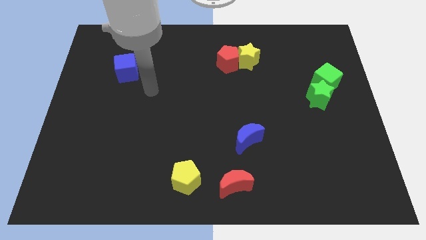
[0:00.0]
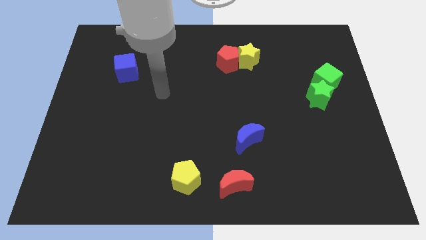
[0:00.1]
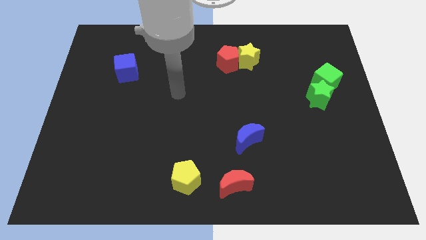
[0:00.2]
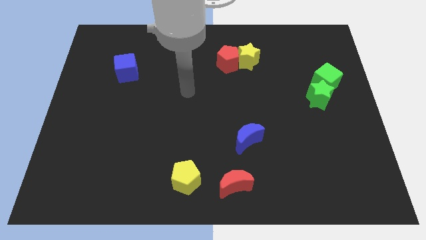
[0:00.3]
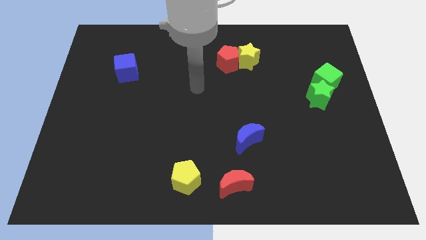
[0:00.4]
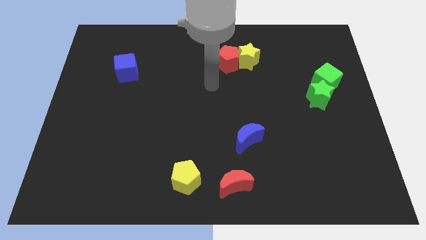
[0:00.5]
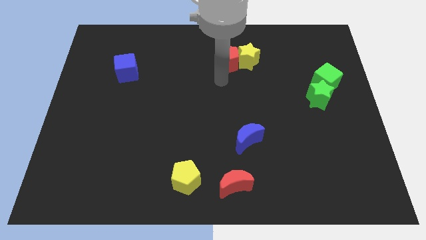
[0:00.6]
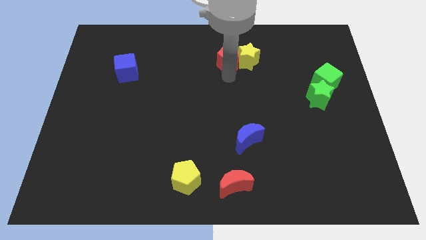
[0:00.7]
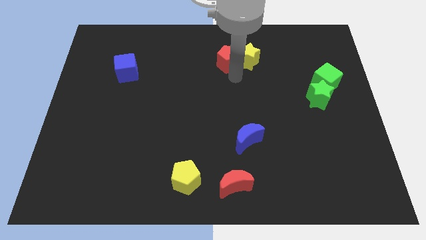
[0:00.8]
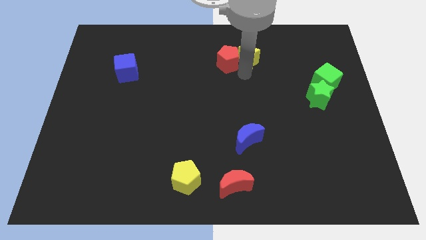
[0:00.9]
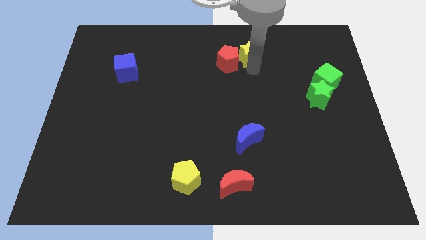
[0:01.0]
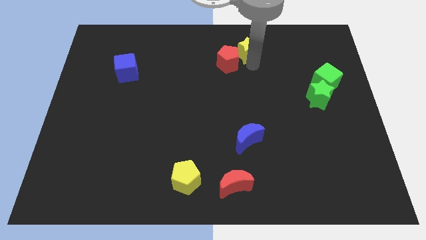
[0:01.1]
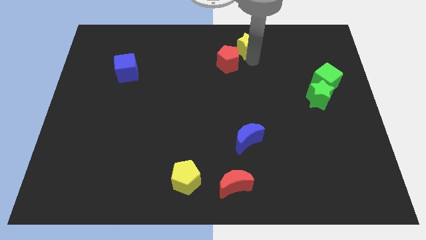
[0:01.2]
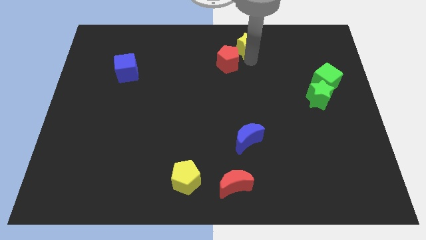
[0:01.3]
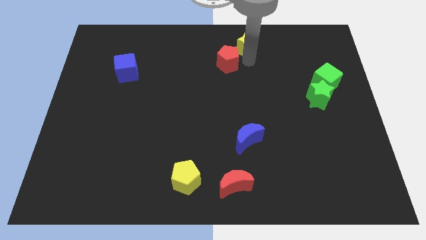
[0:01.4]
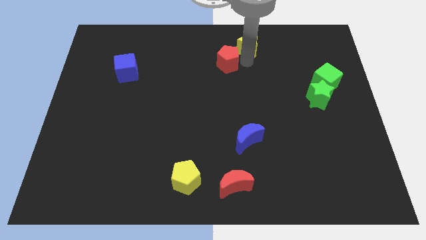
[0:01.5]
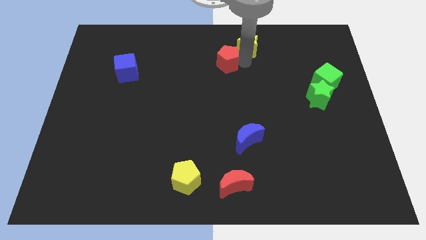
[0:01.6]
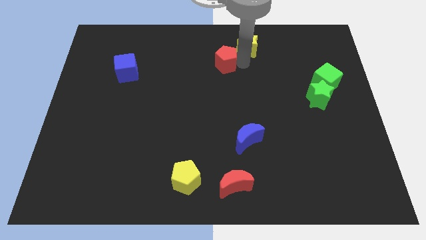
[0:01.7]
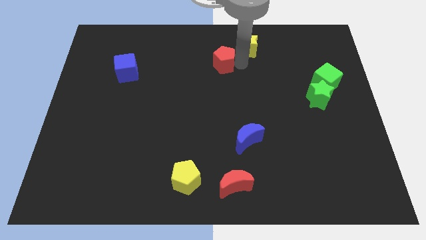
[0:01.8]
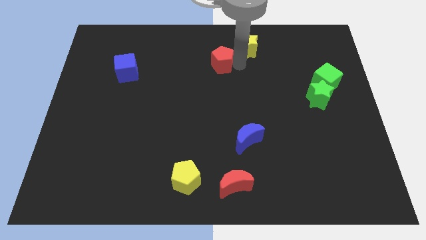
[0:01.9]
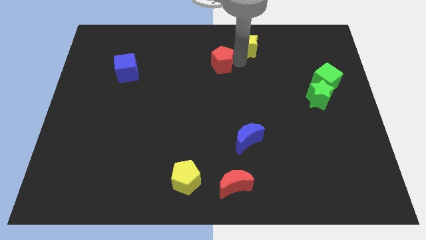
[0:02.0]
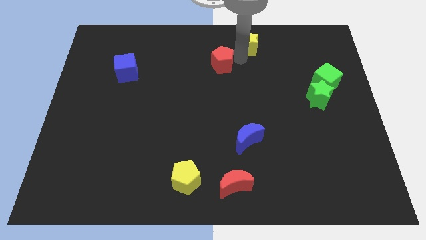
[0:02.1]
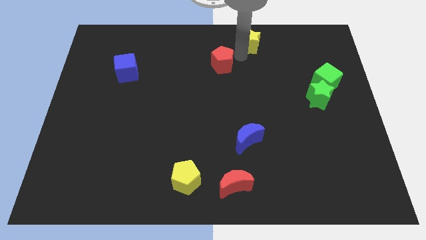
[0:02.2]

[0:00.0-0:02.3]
move the red pentagon away from the yellow star

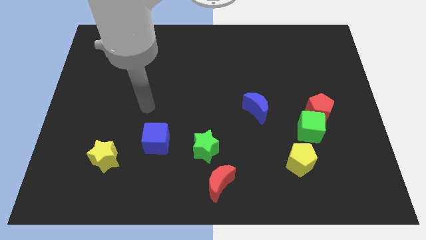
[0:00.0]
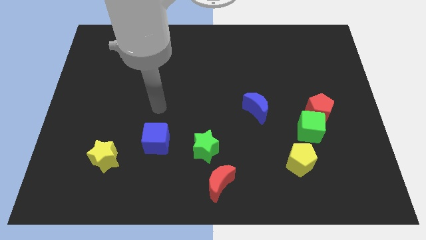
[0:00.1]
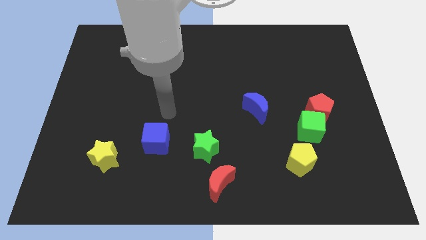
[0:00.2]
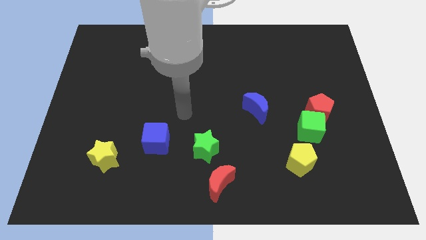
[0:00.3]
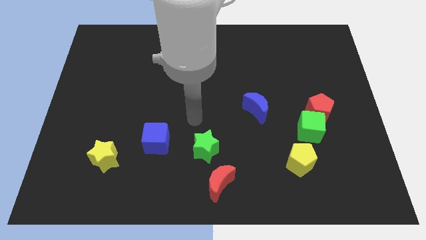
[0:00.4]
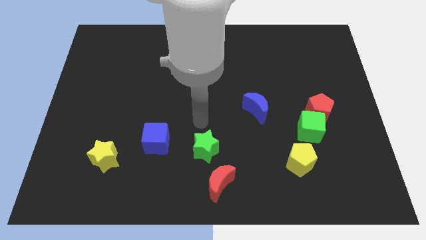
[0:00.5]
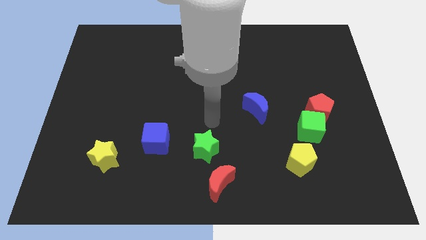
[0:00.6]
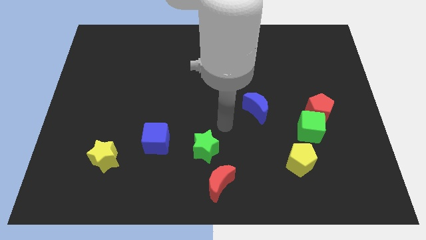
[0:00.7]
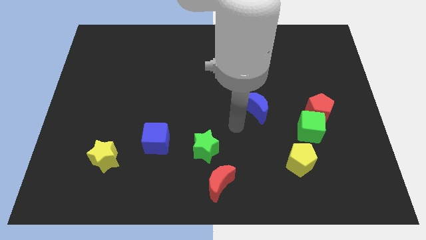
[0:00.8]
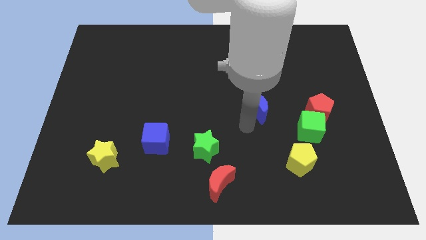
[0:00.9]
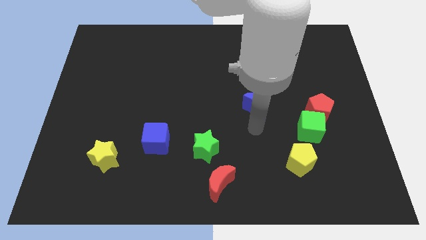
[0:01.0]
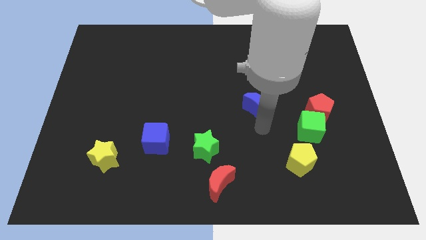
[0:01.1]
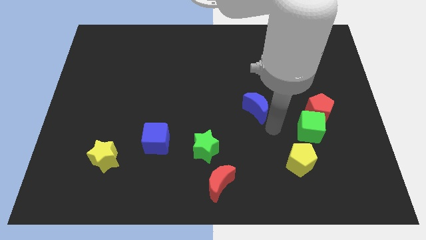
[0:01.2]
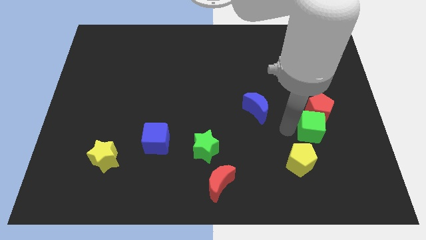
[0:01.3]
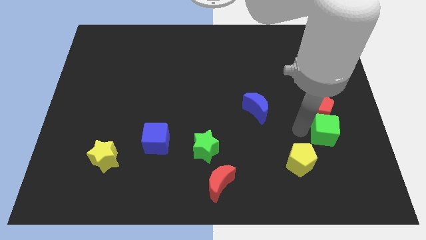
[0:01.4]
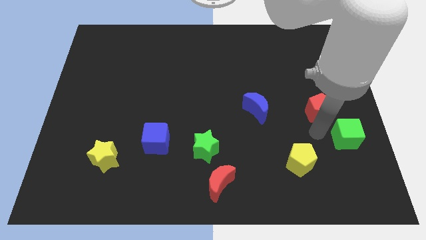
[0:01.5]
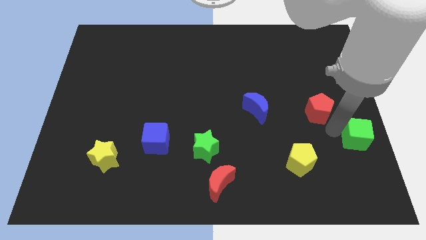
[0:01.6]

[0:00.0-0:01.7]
separate the red pentagon from the green cube

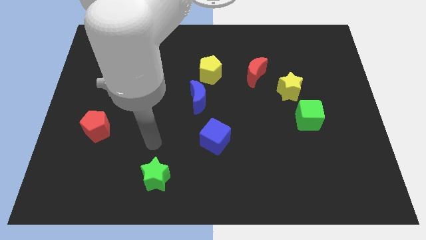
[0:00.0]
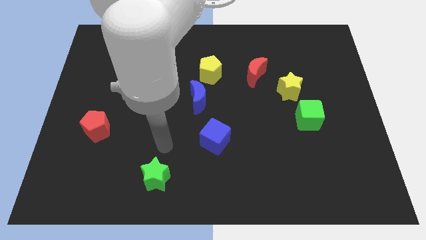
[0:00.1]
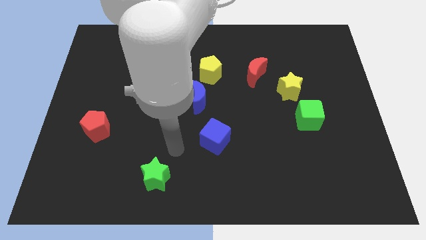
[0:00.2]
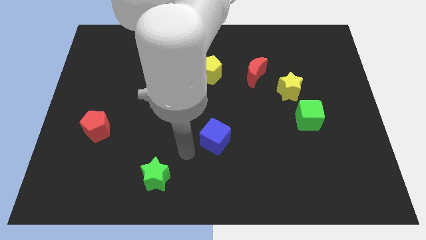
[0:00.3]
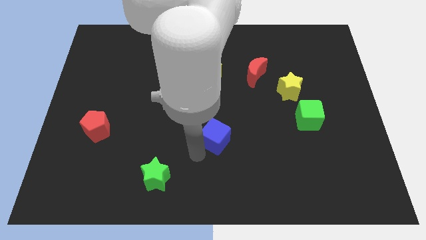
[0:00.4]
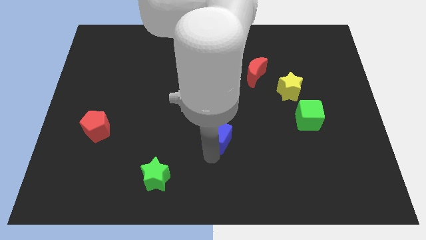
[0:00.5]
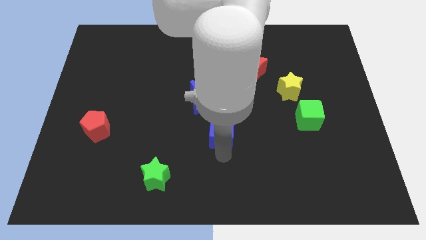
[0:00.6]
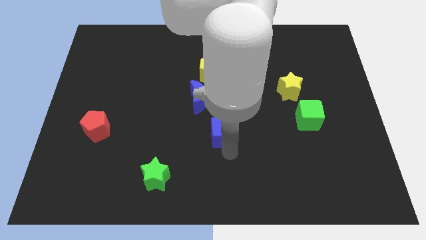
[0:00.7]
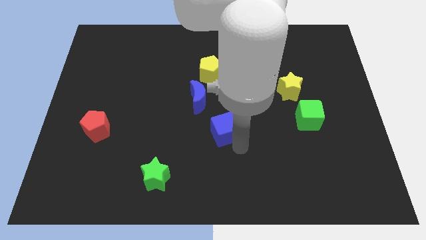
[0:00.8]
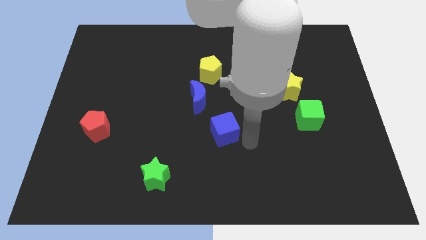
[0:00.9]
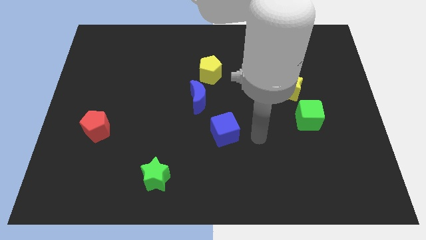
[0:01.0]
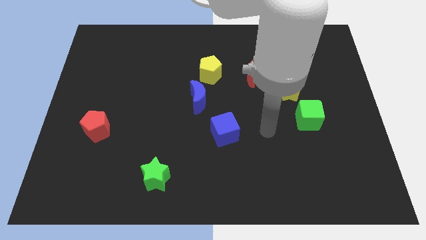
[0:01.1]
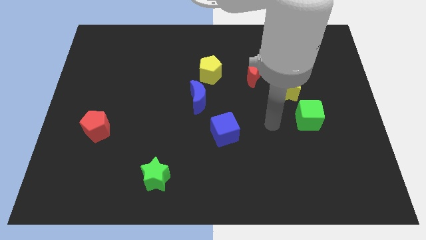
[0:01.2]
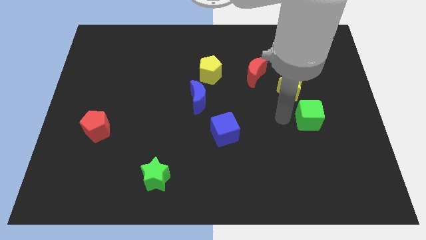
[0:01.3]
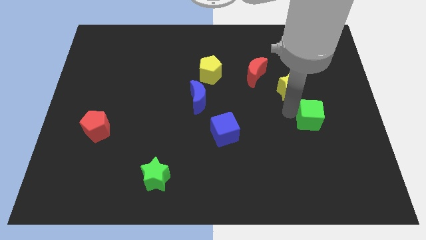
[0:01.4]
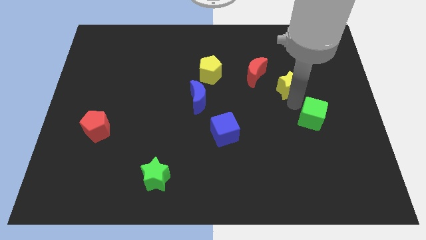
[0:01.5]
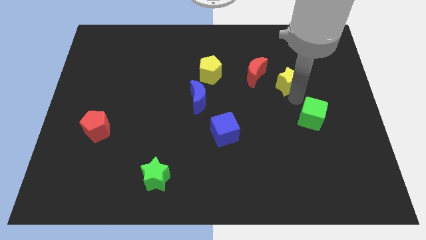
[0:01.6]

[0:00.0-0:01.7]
pull the green cube apart from the yellow star

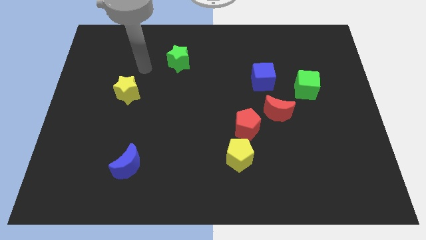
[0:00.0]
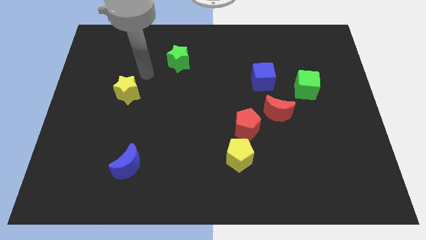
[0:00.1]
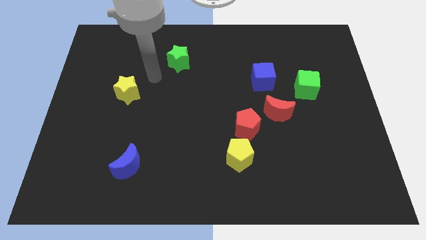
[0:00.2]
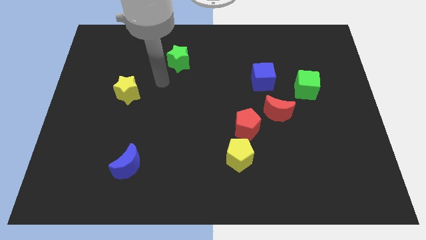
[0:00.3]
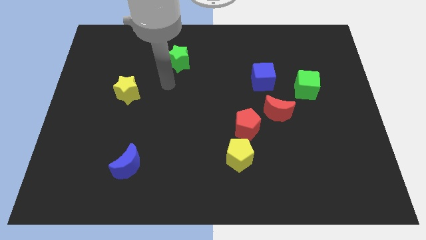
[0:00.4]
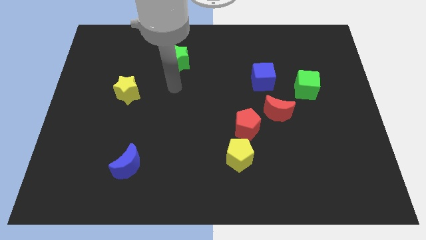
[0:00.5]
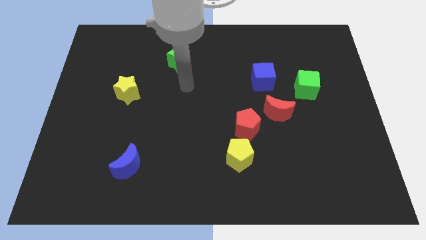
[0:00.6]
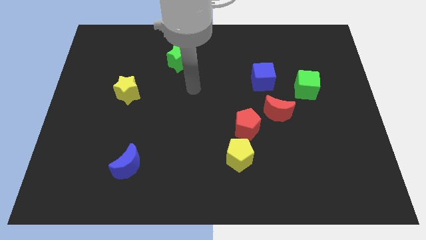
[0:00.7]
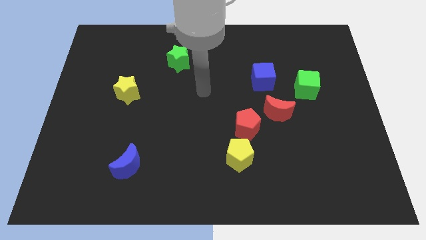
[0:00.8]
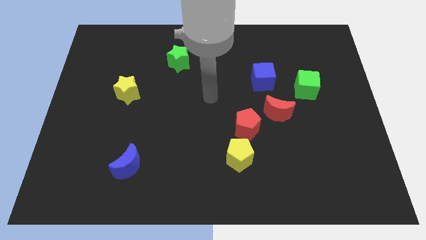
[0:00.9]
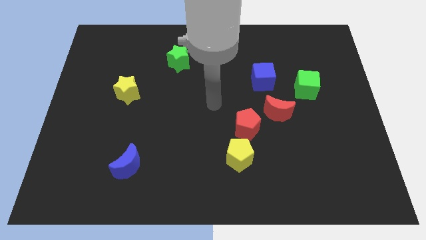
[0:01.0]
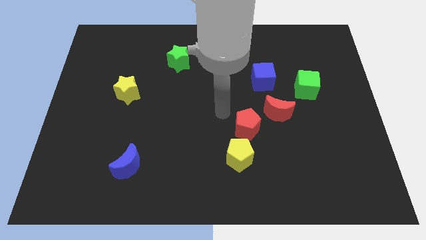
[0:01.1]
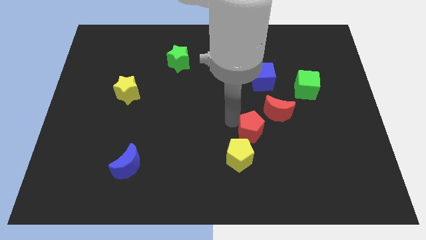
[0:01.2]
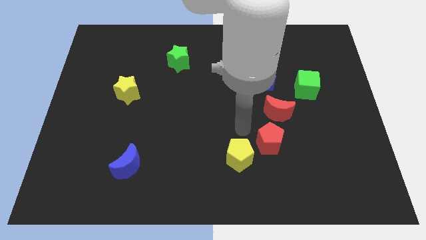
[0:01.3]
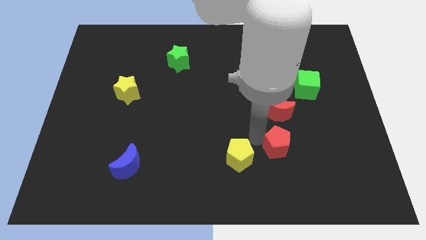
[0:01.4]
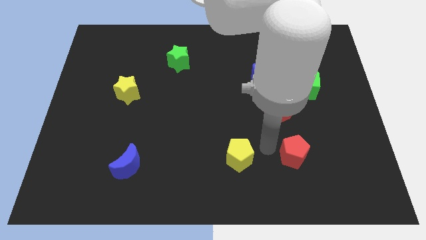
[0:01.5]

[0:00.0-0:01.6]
separate the yellow pentagon from the red pentagon

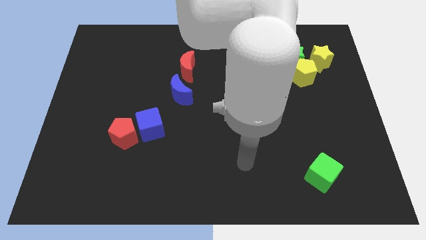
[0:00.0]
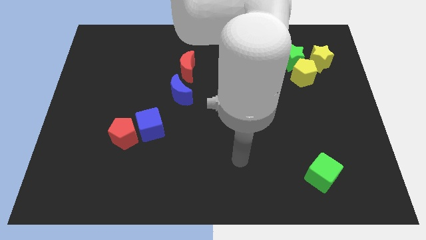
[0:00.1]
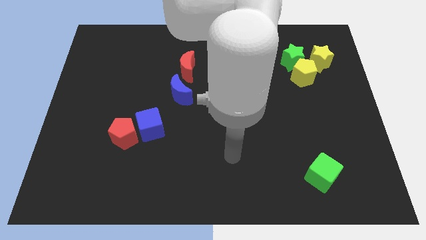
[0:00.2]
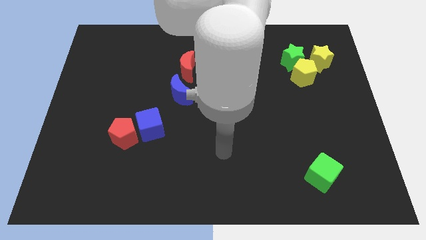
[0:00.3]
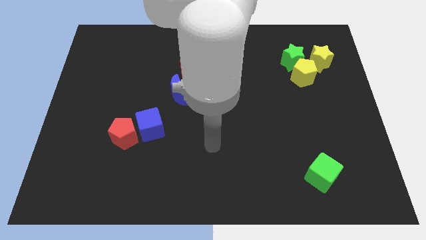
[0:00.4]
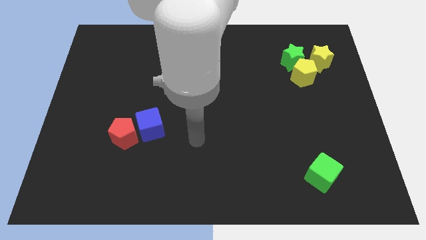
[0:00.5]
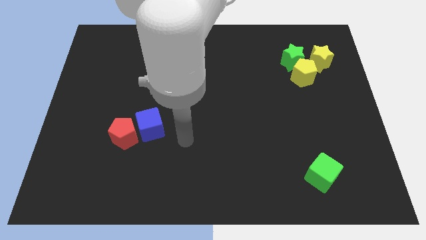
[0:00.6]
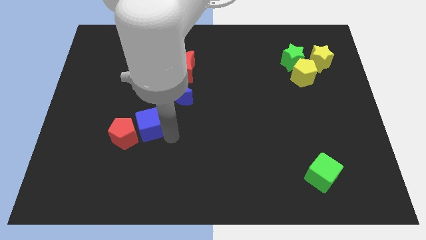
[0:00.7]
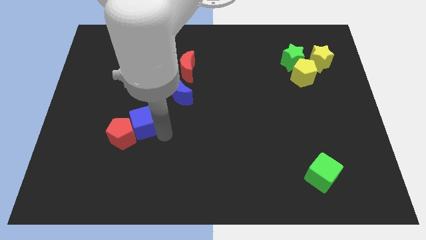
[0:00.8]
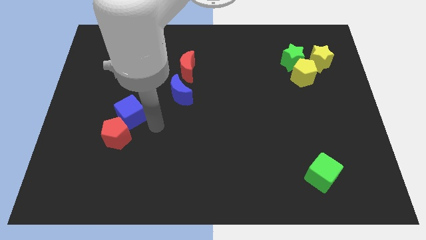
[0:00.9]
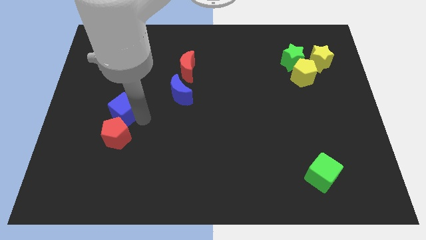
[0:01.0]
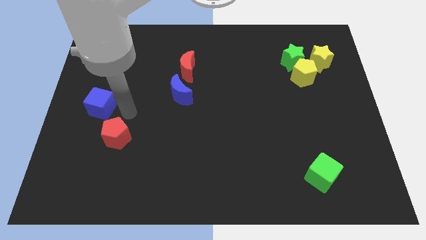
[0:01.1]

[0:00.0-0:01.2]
separate the red pentagon from the blue cube

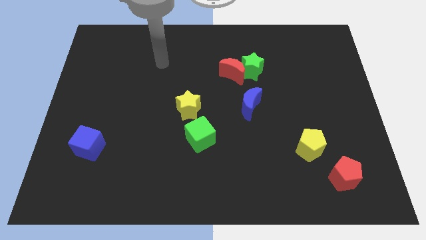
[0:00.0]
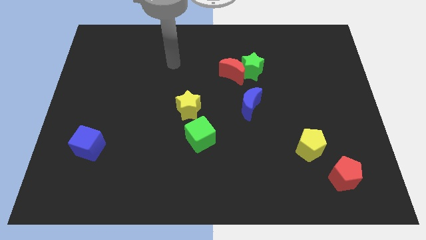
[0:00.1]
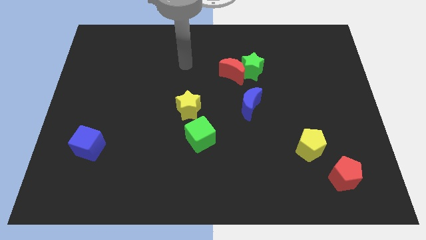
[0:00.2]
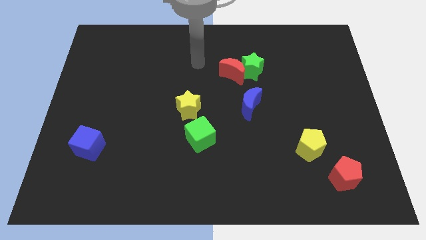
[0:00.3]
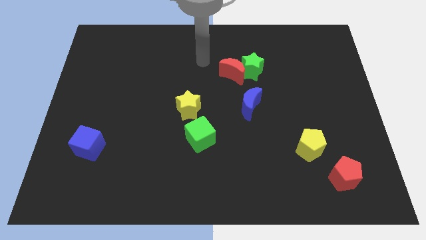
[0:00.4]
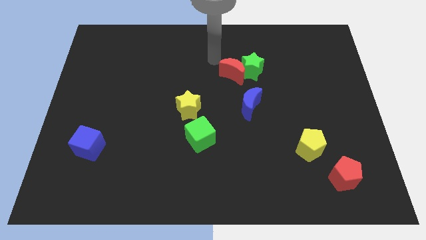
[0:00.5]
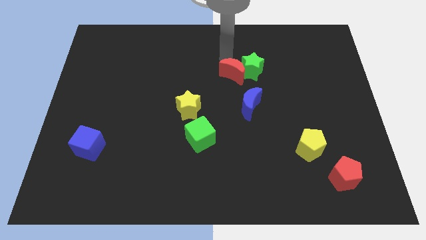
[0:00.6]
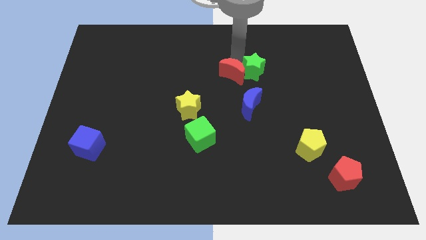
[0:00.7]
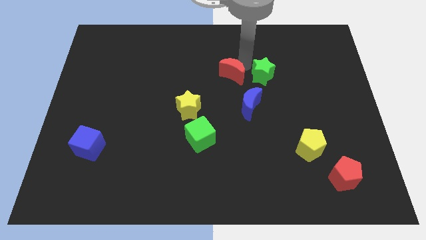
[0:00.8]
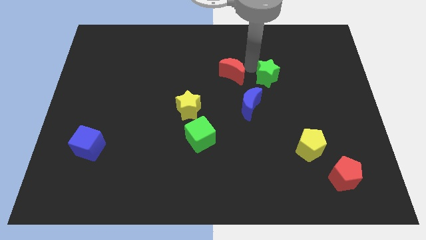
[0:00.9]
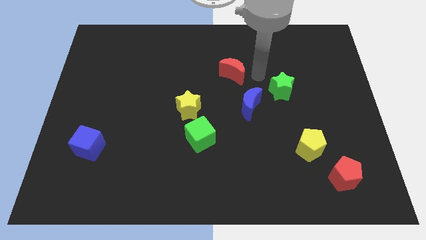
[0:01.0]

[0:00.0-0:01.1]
pull the red moon apart from the green star
